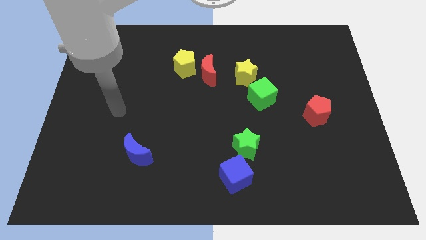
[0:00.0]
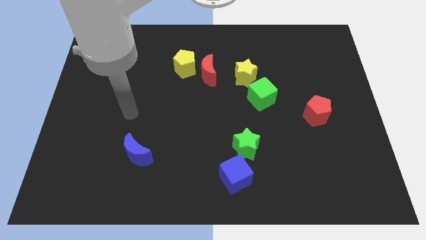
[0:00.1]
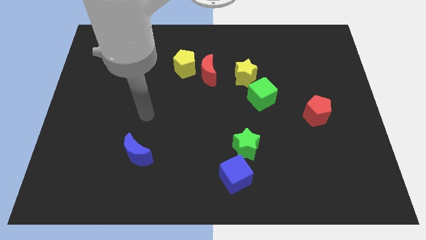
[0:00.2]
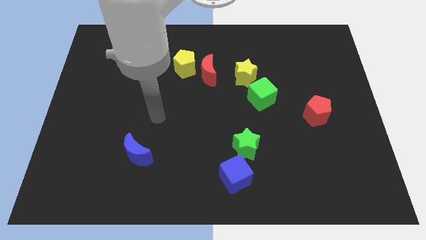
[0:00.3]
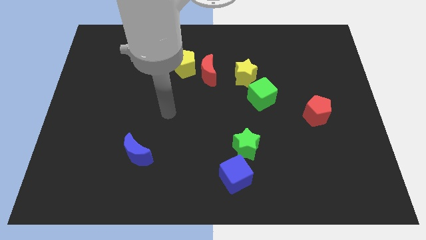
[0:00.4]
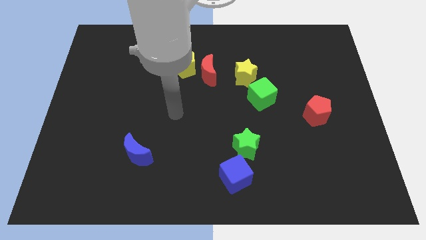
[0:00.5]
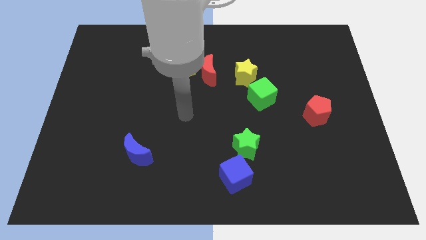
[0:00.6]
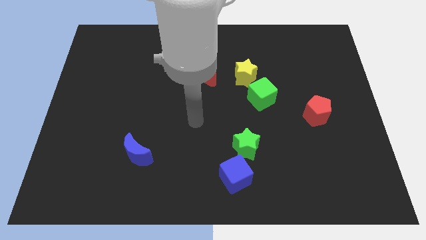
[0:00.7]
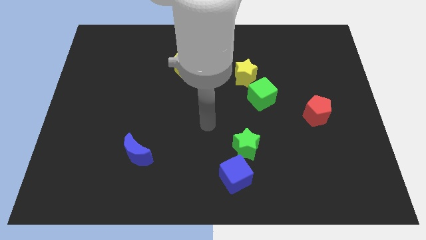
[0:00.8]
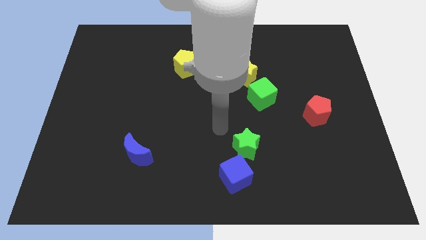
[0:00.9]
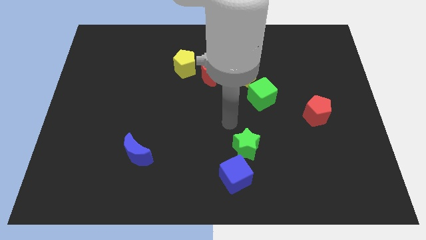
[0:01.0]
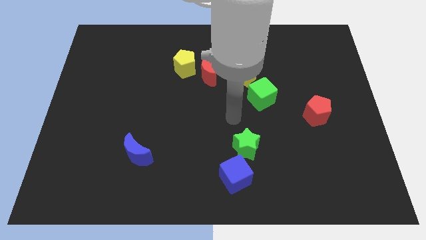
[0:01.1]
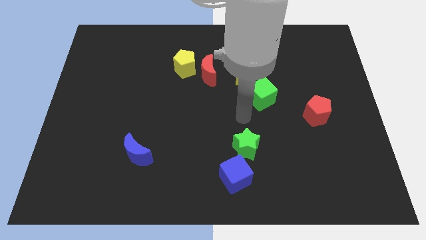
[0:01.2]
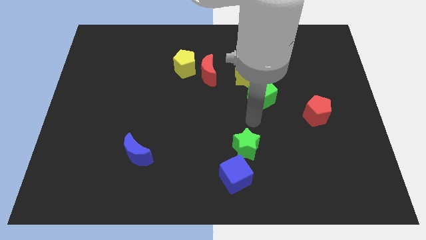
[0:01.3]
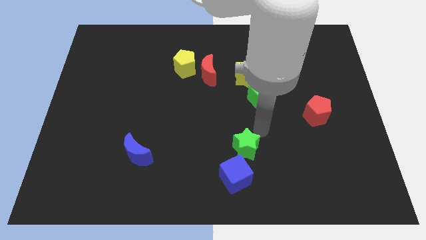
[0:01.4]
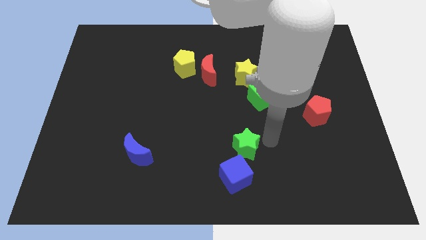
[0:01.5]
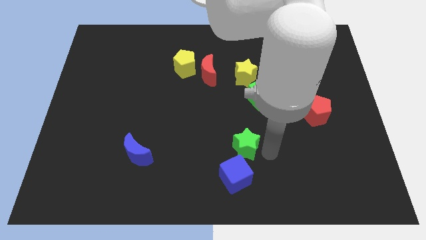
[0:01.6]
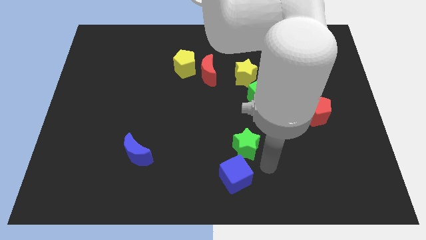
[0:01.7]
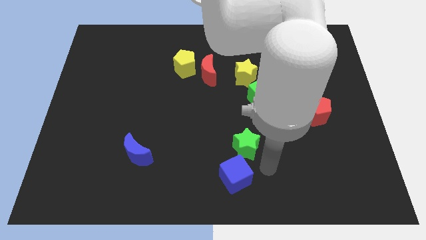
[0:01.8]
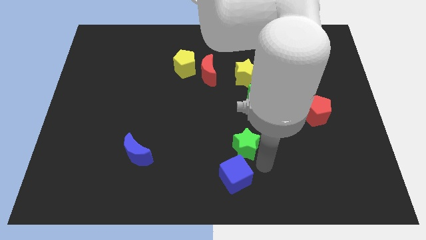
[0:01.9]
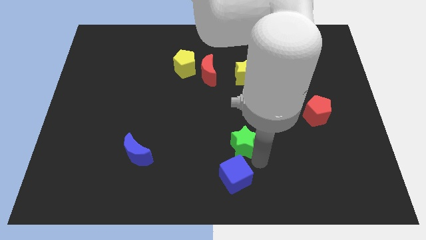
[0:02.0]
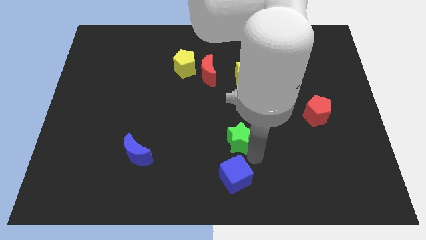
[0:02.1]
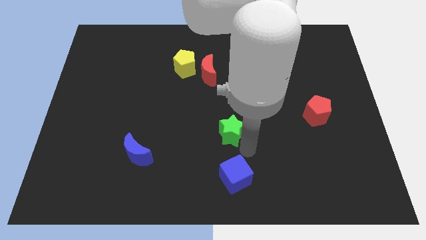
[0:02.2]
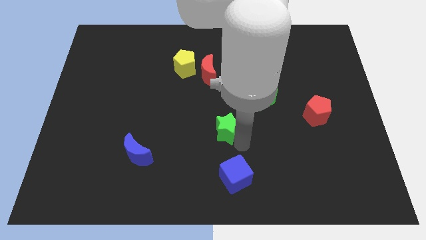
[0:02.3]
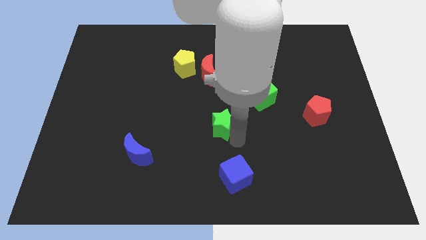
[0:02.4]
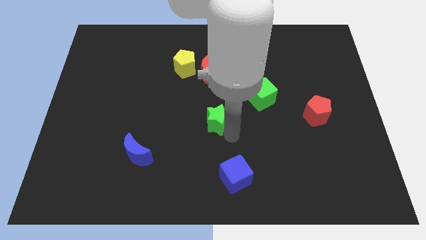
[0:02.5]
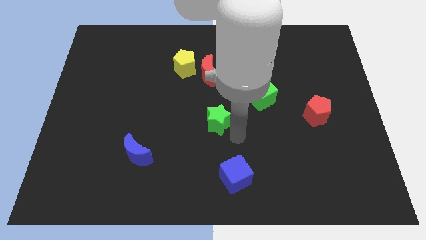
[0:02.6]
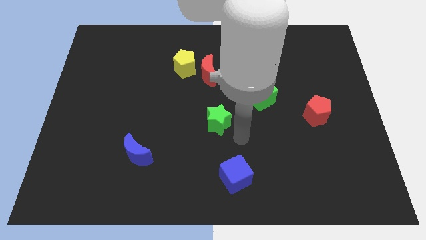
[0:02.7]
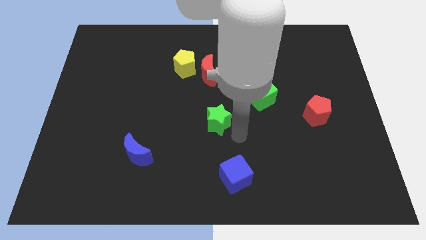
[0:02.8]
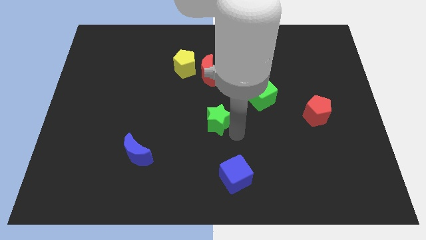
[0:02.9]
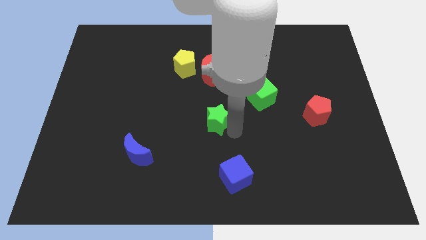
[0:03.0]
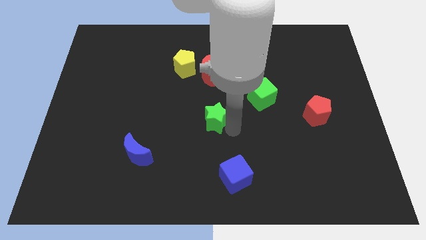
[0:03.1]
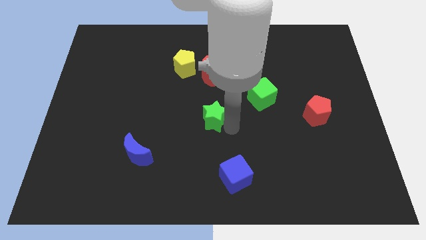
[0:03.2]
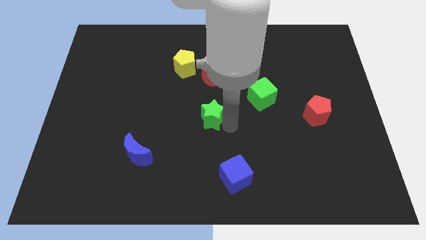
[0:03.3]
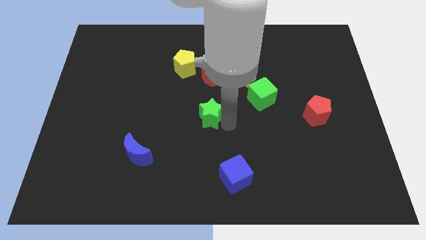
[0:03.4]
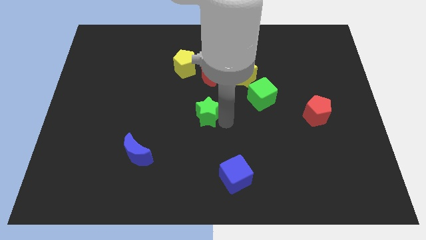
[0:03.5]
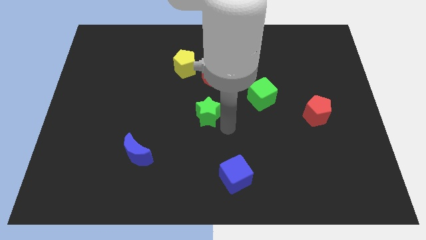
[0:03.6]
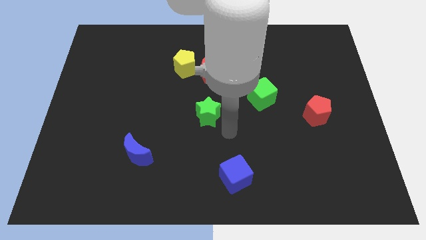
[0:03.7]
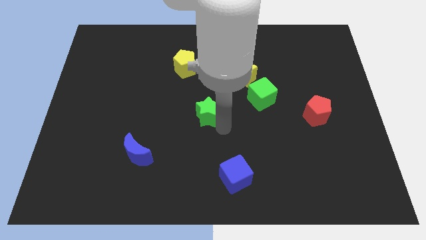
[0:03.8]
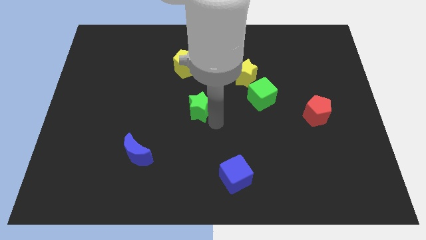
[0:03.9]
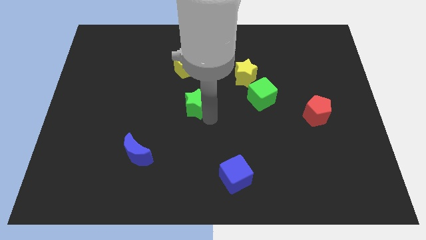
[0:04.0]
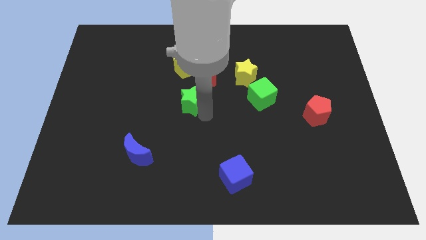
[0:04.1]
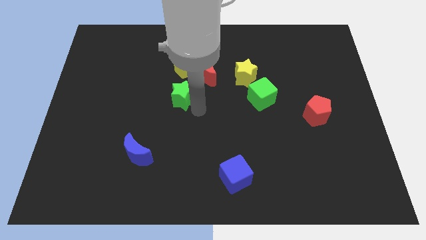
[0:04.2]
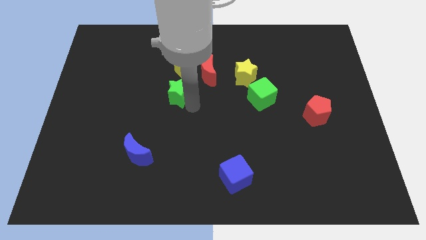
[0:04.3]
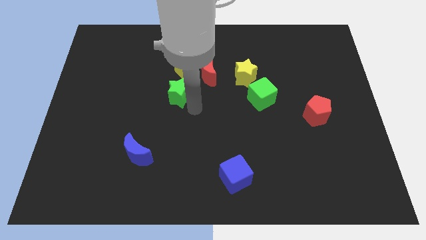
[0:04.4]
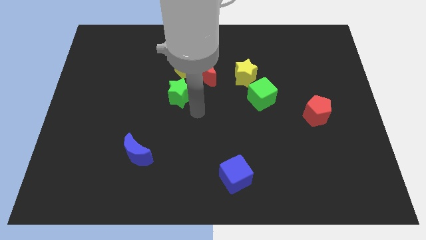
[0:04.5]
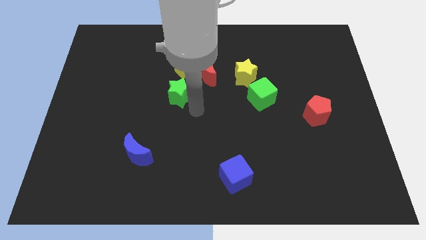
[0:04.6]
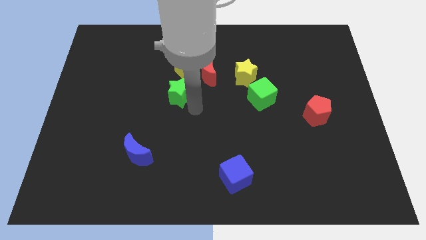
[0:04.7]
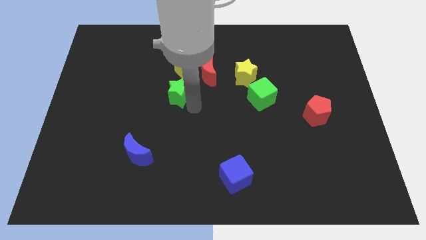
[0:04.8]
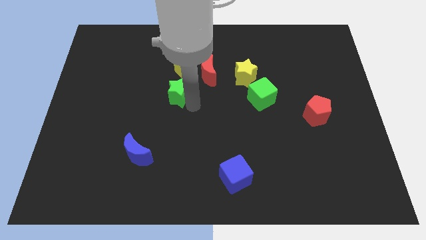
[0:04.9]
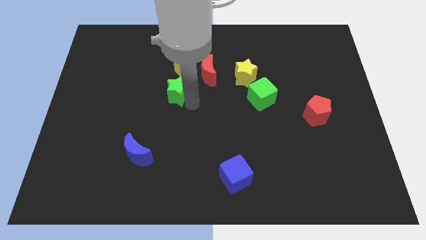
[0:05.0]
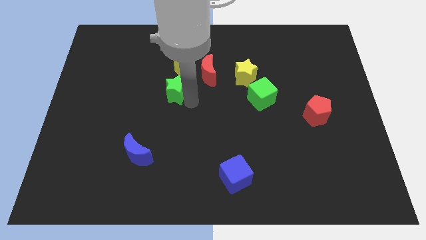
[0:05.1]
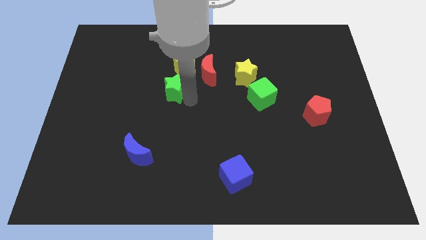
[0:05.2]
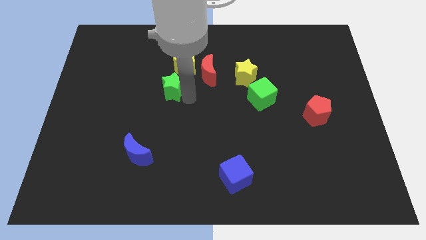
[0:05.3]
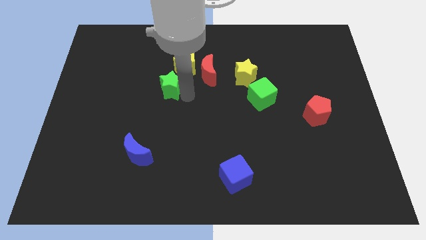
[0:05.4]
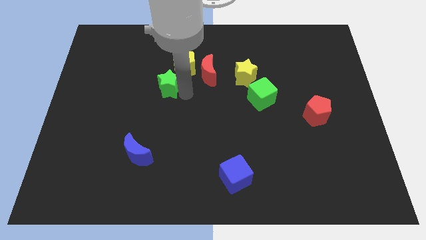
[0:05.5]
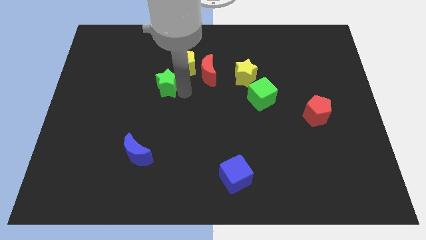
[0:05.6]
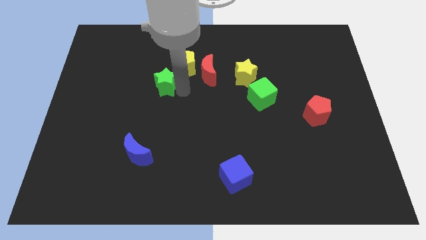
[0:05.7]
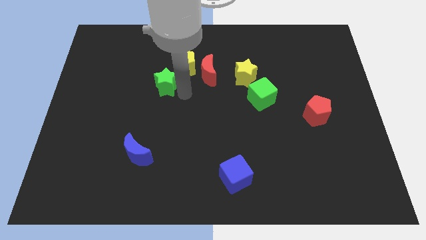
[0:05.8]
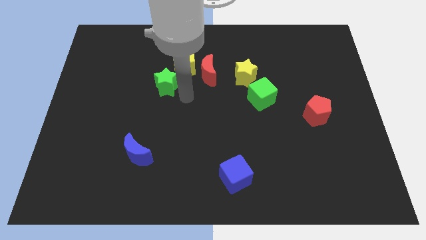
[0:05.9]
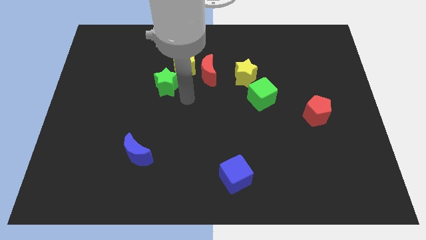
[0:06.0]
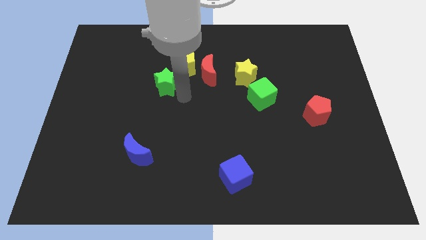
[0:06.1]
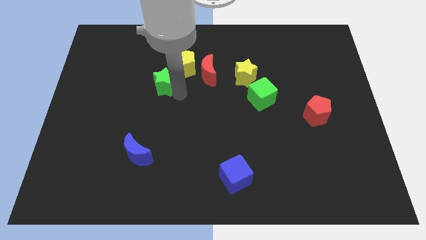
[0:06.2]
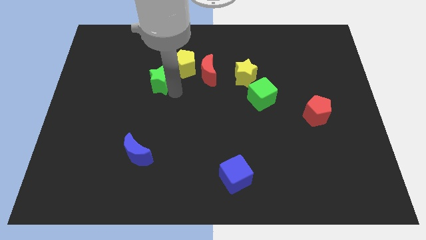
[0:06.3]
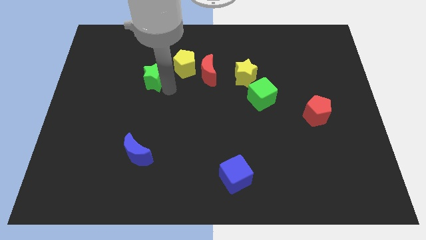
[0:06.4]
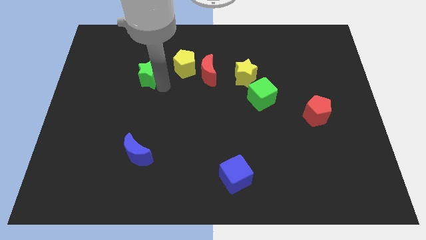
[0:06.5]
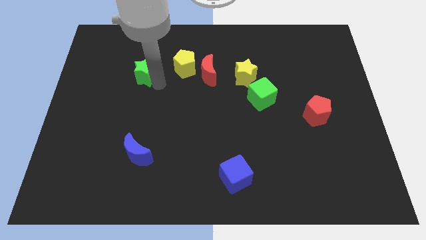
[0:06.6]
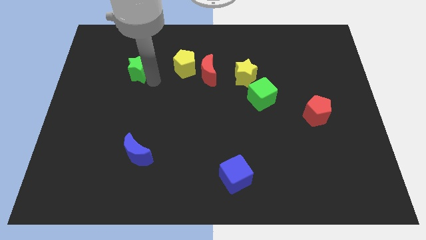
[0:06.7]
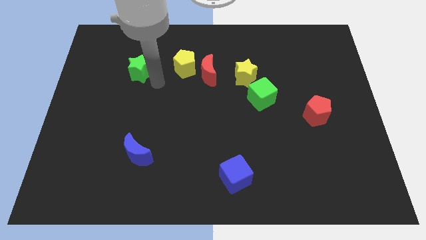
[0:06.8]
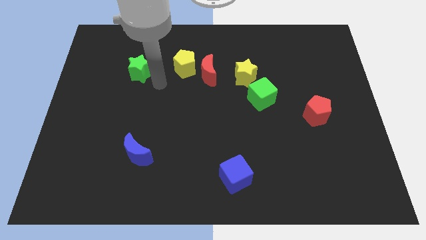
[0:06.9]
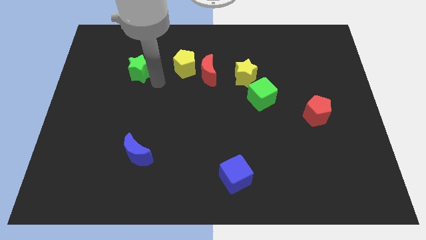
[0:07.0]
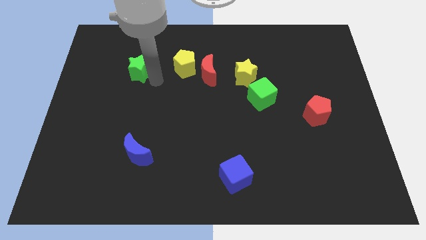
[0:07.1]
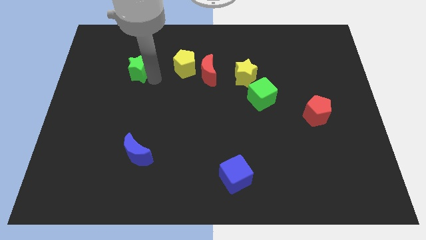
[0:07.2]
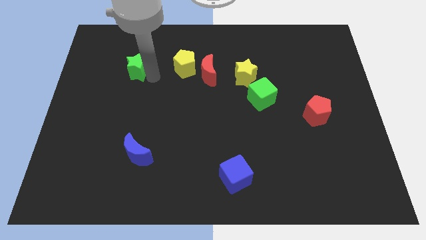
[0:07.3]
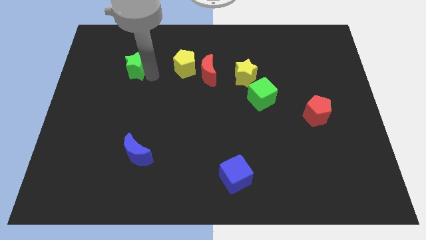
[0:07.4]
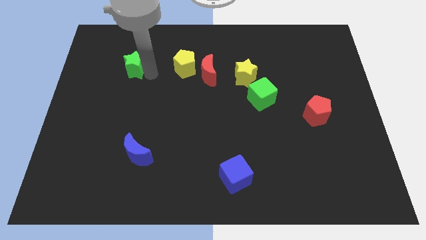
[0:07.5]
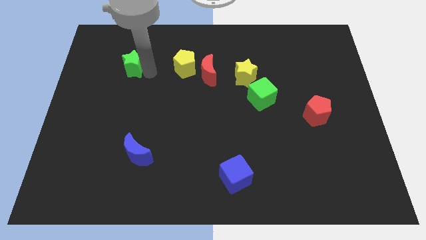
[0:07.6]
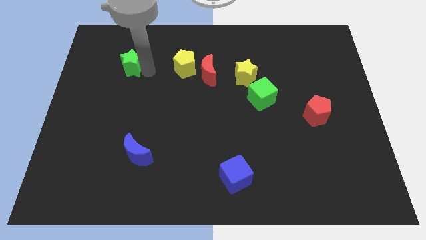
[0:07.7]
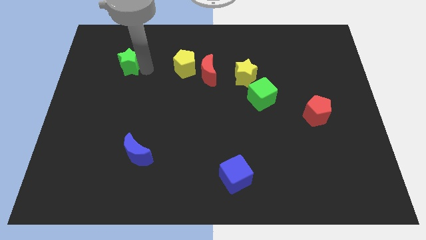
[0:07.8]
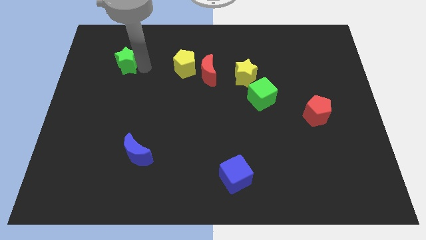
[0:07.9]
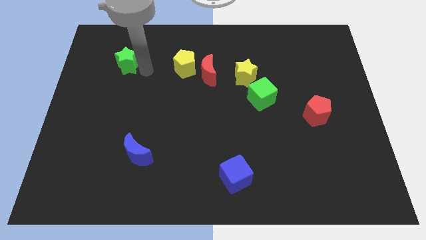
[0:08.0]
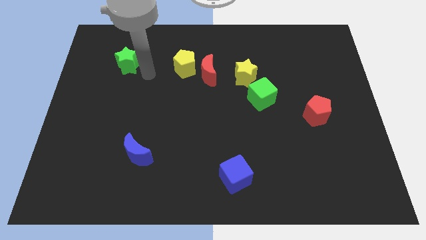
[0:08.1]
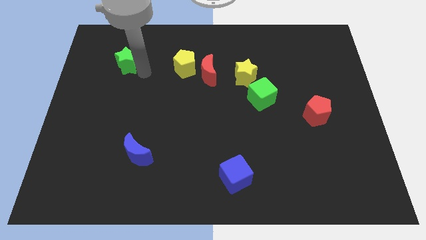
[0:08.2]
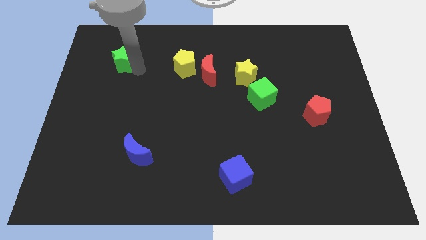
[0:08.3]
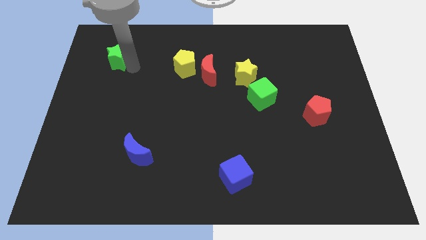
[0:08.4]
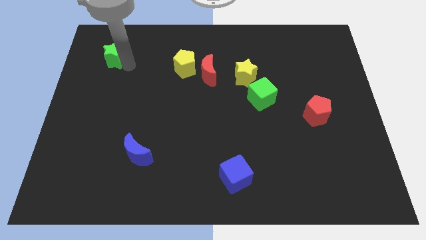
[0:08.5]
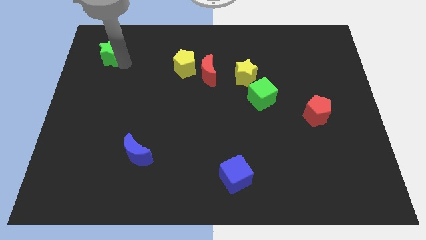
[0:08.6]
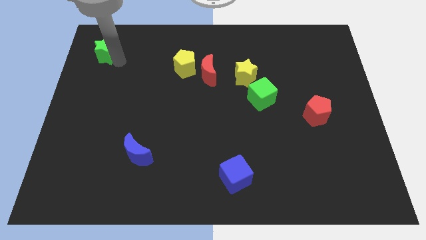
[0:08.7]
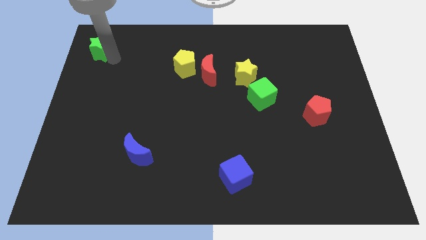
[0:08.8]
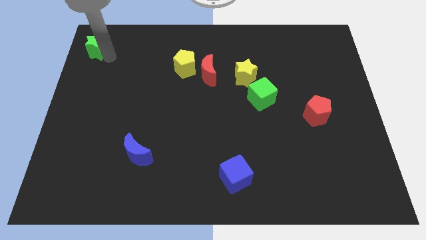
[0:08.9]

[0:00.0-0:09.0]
push the green star to the top left
